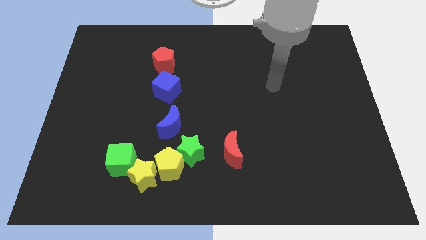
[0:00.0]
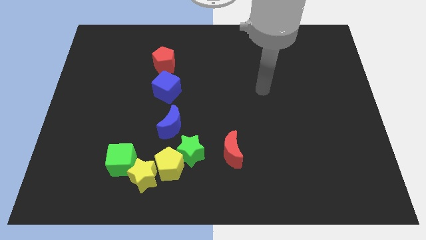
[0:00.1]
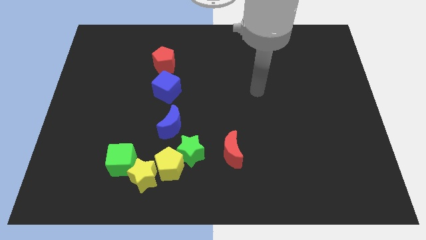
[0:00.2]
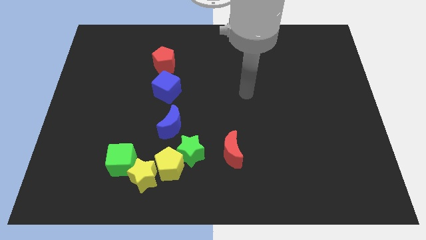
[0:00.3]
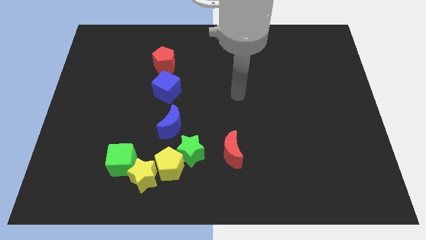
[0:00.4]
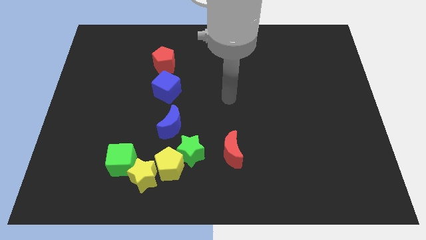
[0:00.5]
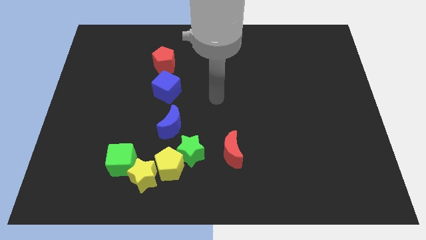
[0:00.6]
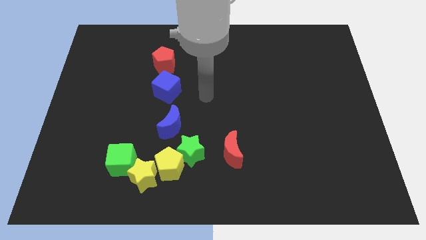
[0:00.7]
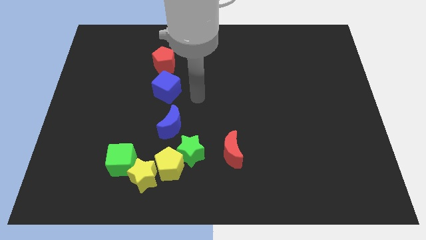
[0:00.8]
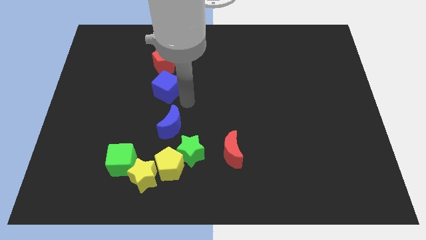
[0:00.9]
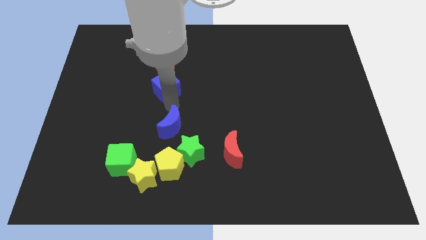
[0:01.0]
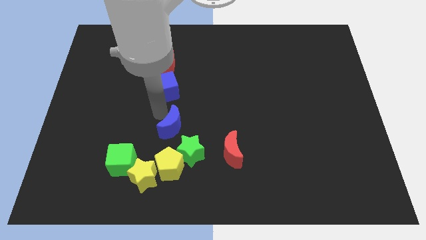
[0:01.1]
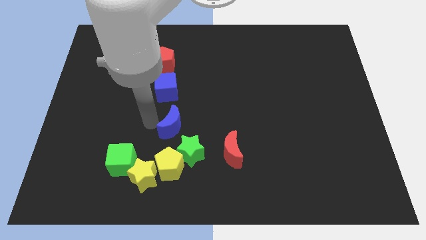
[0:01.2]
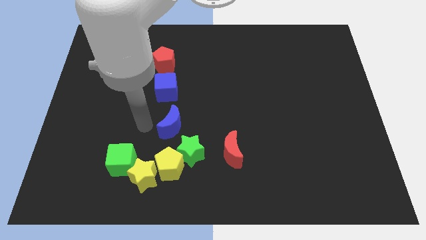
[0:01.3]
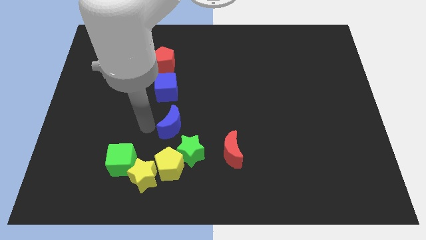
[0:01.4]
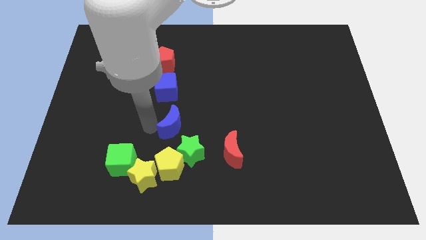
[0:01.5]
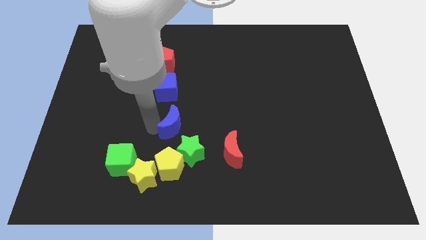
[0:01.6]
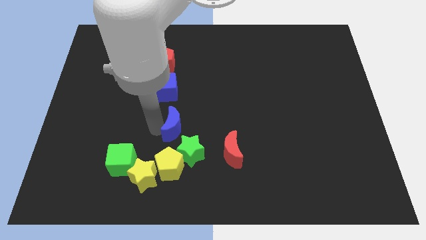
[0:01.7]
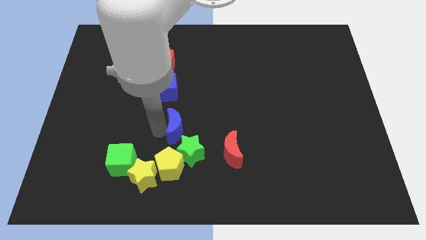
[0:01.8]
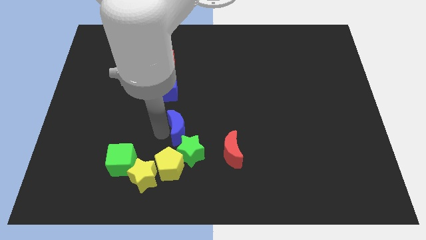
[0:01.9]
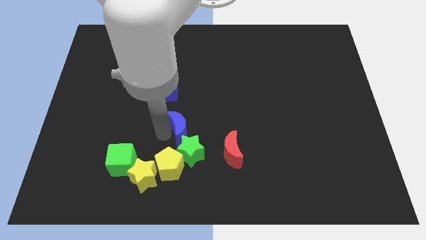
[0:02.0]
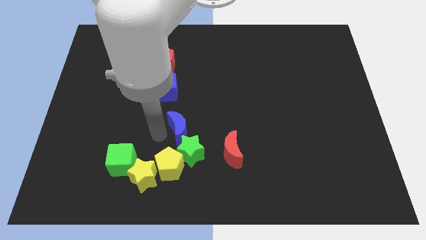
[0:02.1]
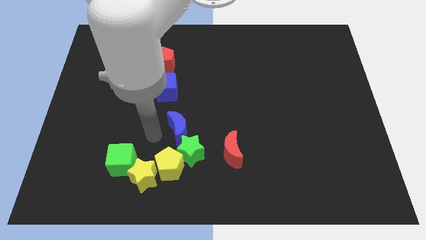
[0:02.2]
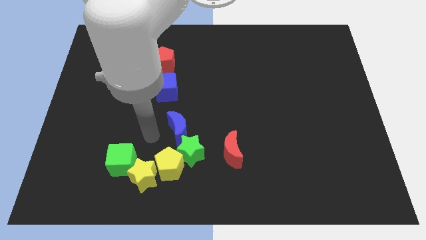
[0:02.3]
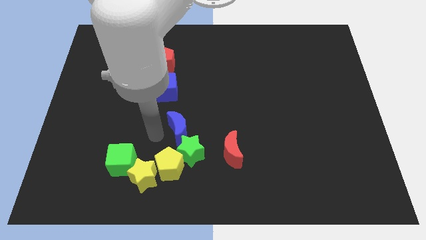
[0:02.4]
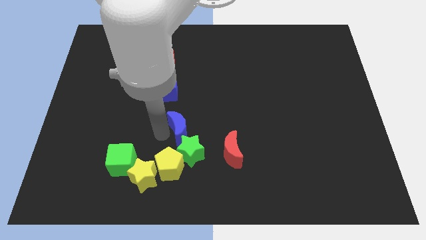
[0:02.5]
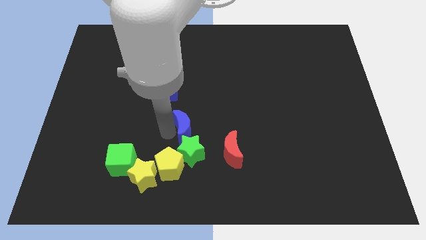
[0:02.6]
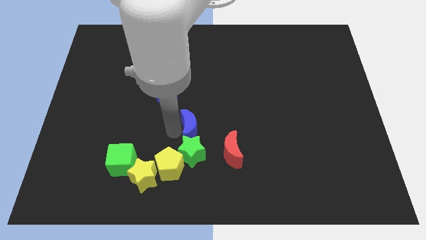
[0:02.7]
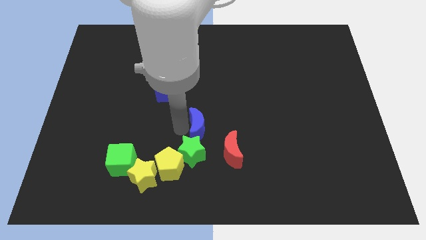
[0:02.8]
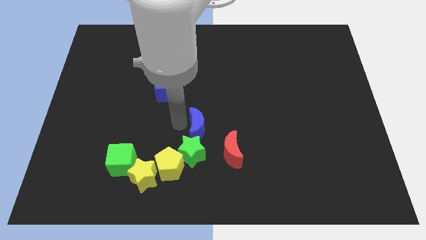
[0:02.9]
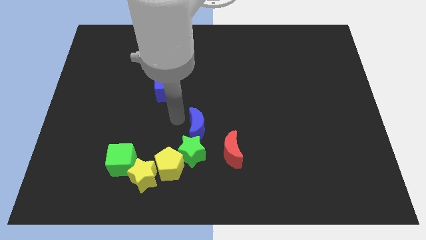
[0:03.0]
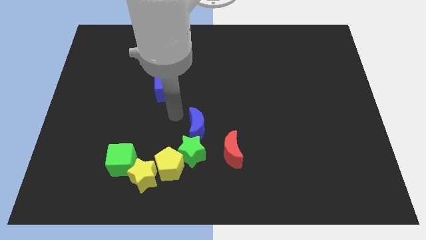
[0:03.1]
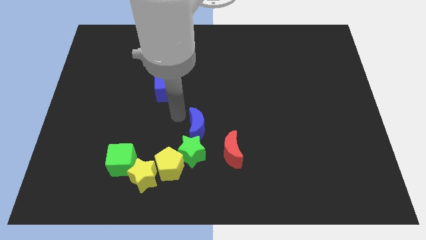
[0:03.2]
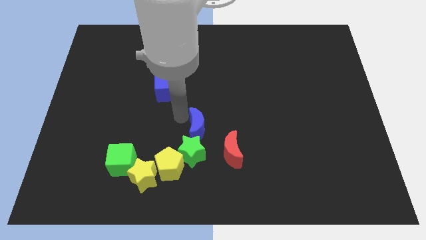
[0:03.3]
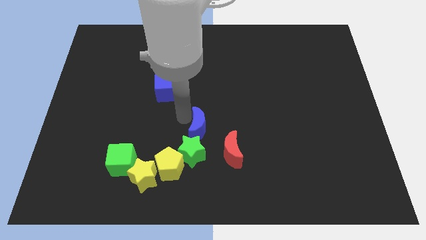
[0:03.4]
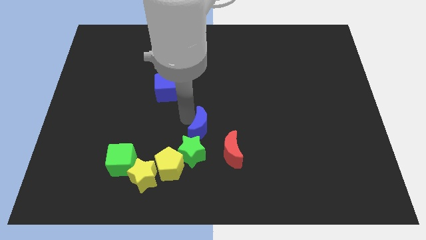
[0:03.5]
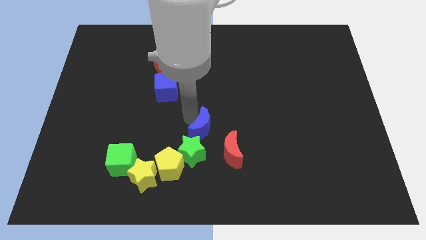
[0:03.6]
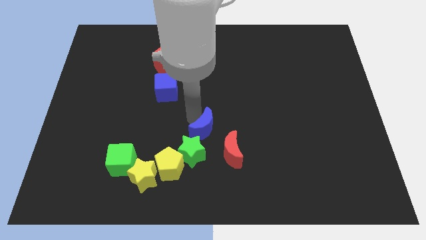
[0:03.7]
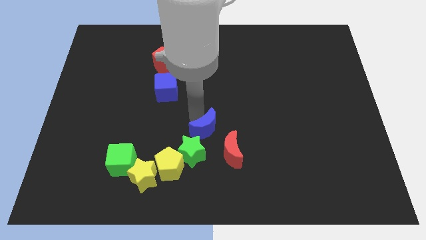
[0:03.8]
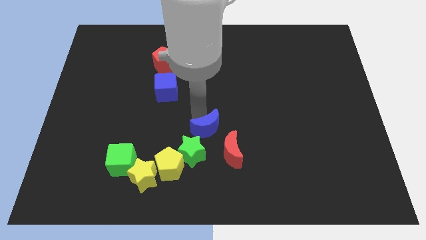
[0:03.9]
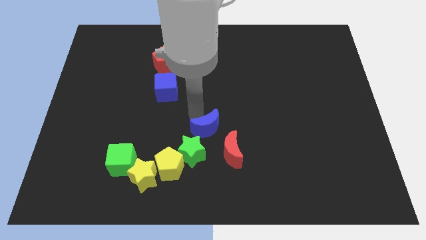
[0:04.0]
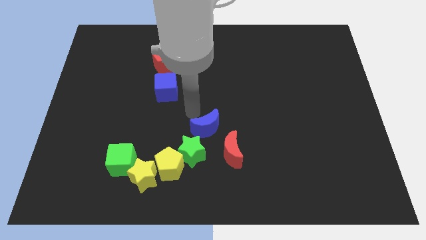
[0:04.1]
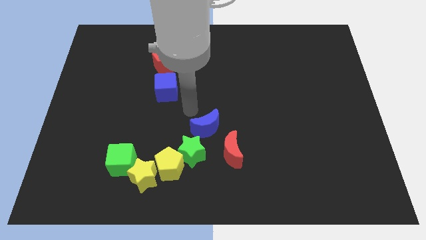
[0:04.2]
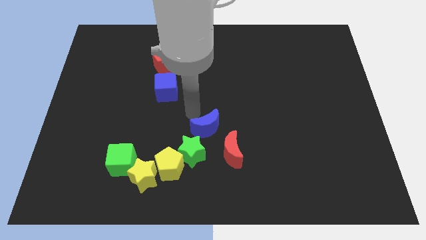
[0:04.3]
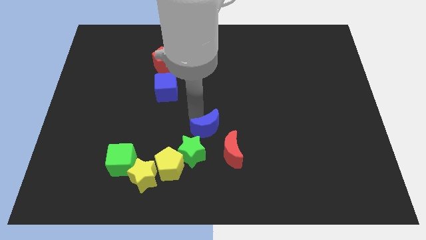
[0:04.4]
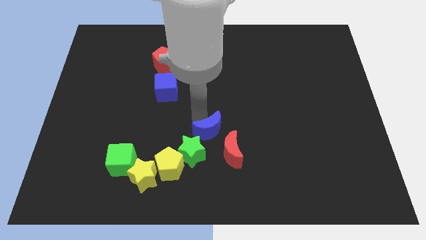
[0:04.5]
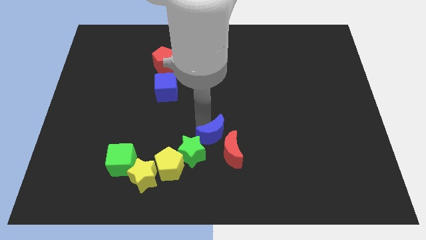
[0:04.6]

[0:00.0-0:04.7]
push the blue moon towards the red moon
